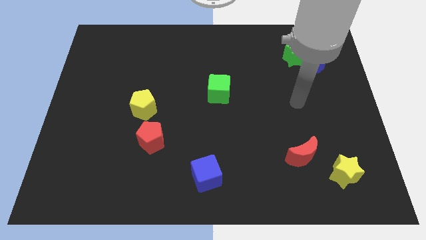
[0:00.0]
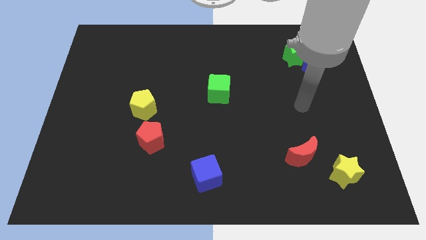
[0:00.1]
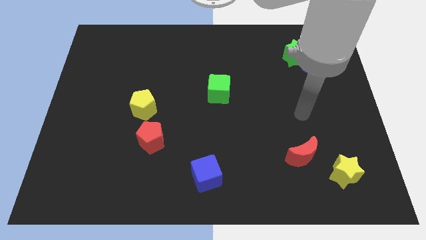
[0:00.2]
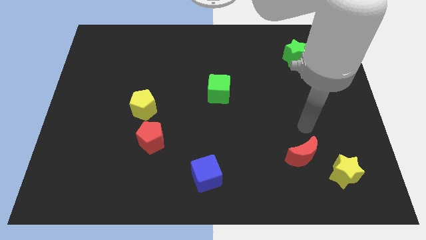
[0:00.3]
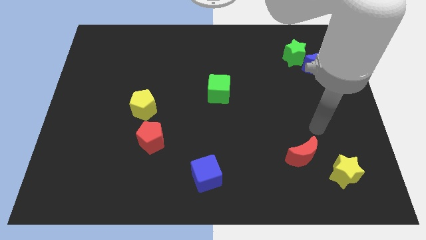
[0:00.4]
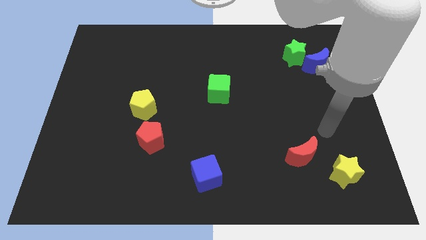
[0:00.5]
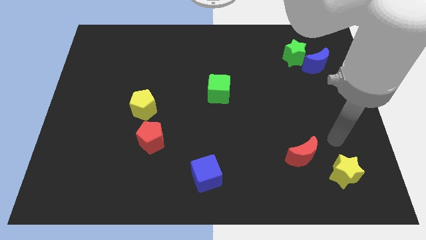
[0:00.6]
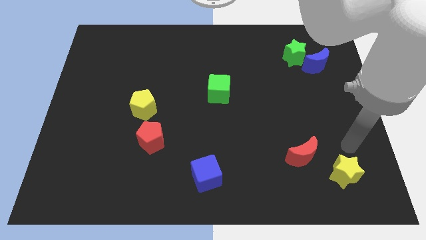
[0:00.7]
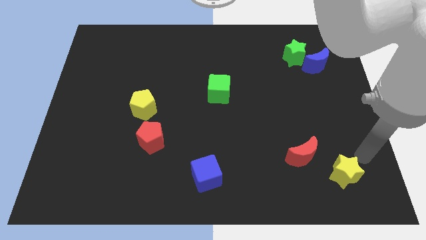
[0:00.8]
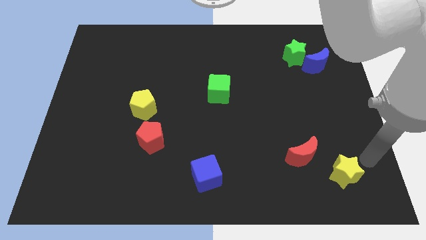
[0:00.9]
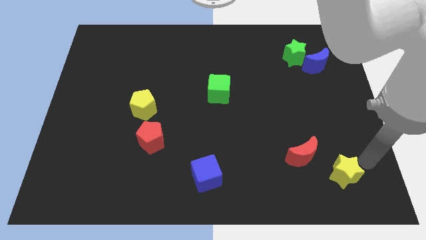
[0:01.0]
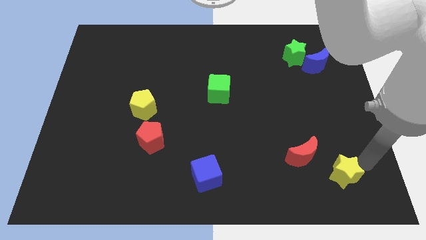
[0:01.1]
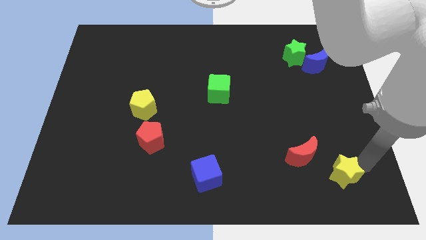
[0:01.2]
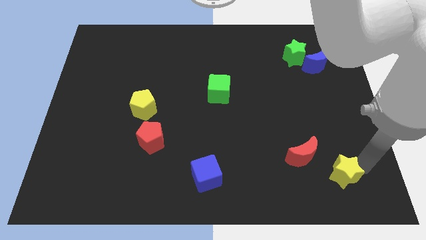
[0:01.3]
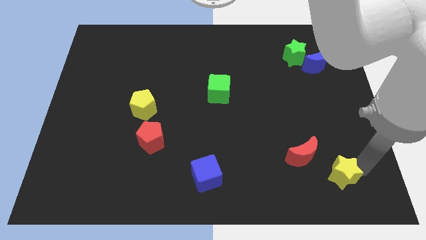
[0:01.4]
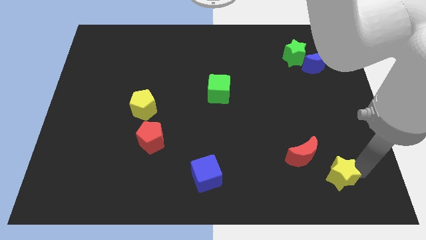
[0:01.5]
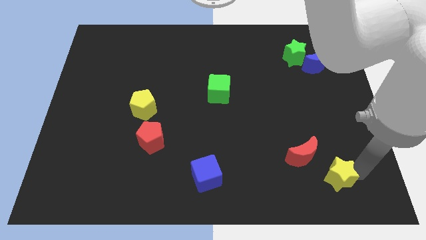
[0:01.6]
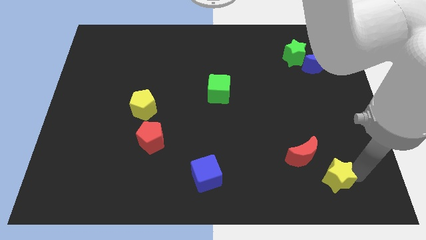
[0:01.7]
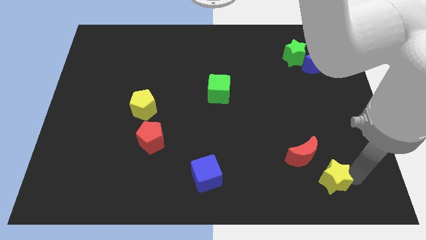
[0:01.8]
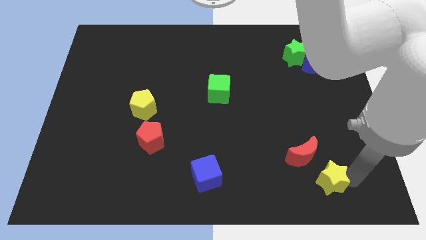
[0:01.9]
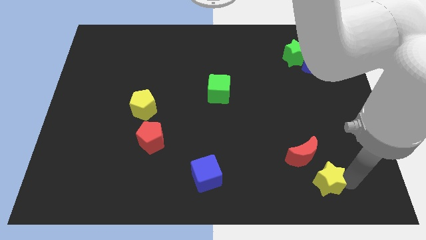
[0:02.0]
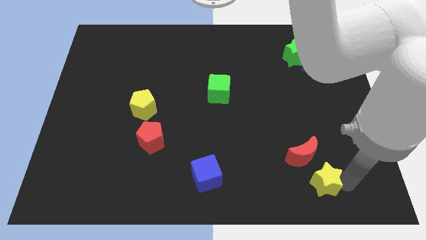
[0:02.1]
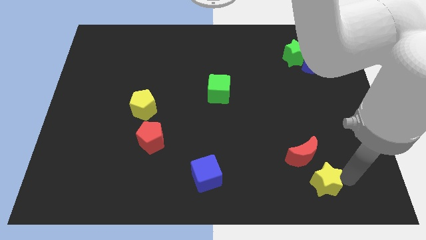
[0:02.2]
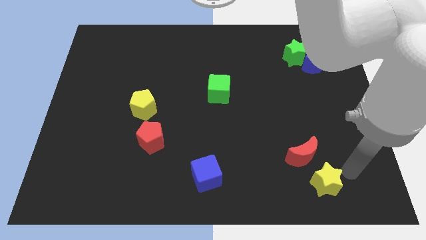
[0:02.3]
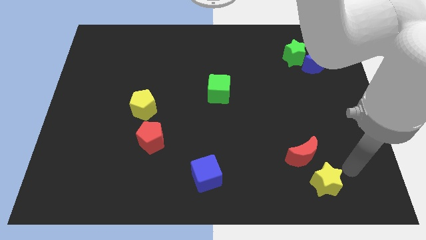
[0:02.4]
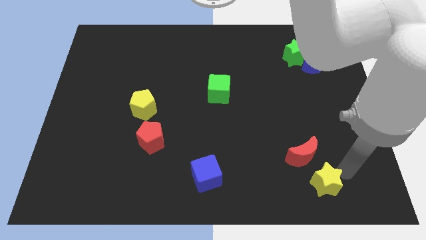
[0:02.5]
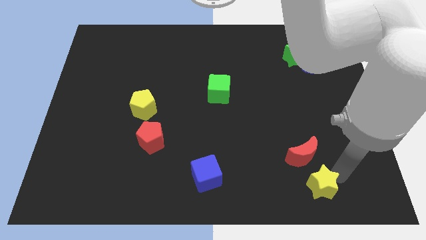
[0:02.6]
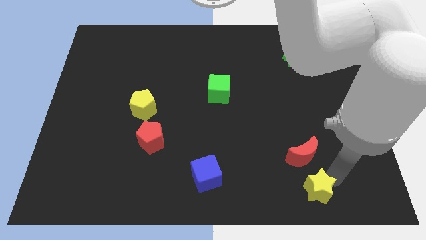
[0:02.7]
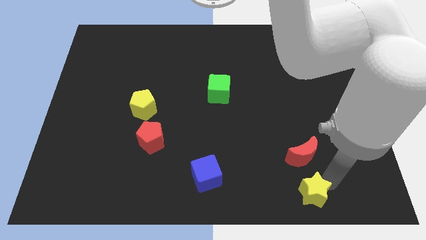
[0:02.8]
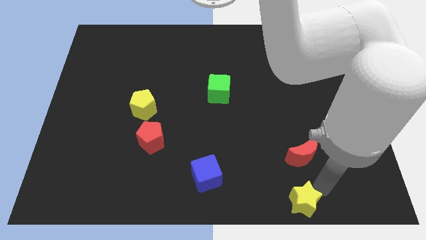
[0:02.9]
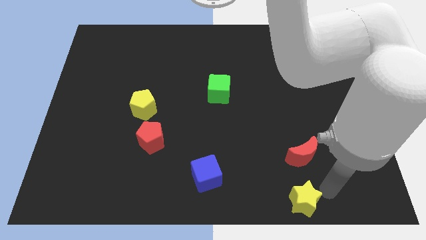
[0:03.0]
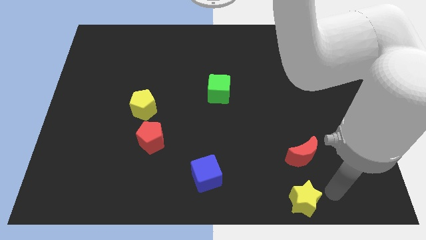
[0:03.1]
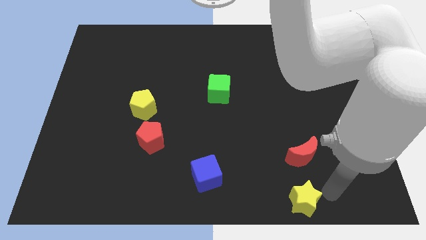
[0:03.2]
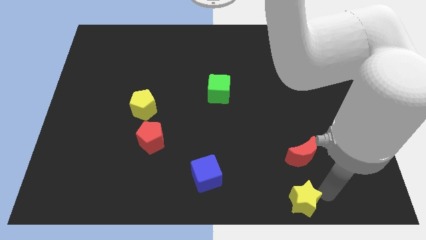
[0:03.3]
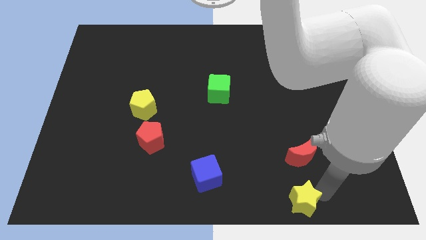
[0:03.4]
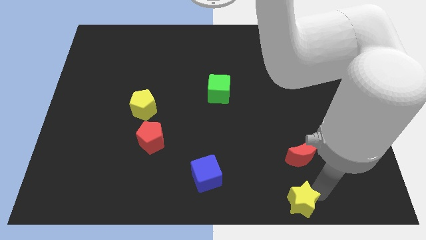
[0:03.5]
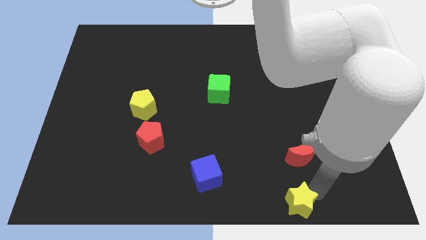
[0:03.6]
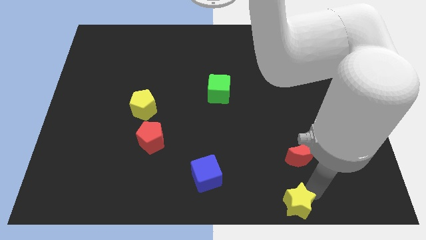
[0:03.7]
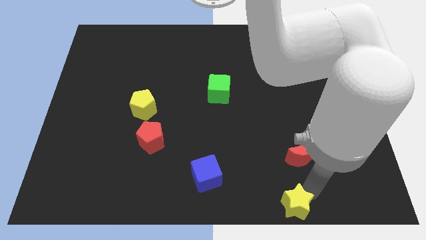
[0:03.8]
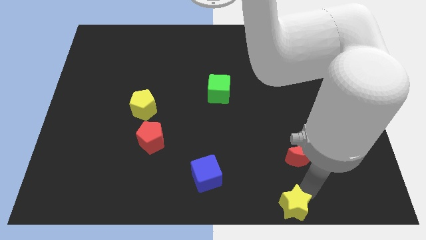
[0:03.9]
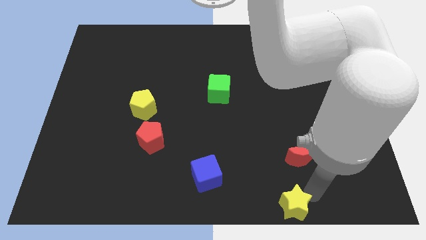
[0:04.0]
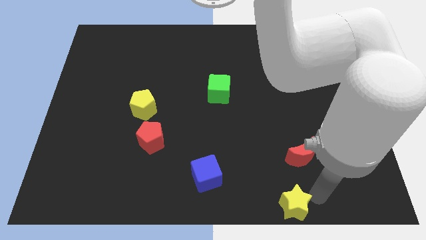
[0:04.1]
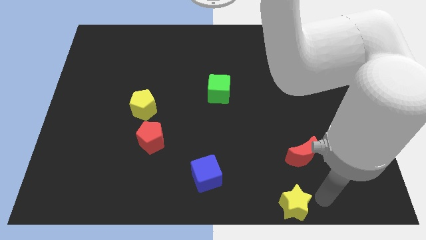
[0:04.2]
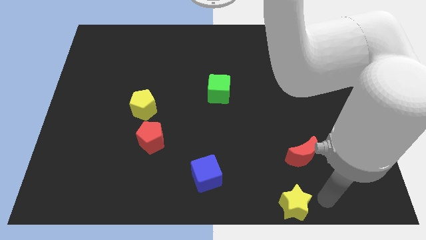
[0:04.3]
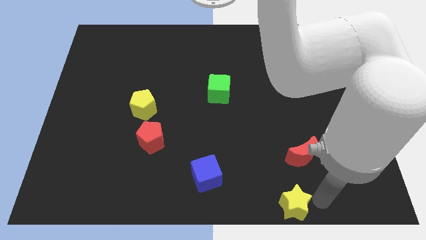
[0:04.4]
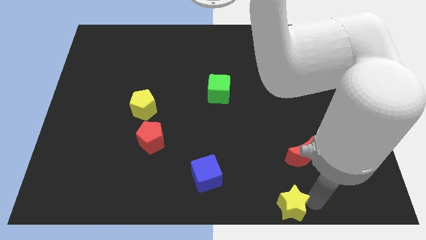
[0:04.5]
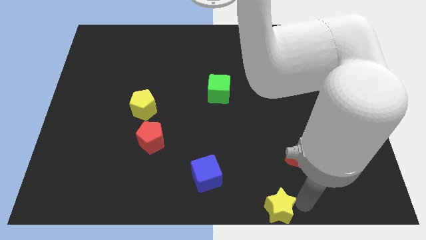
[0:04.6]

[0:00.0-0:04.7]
slide the yellow star to the bottom

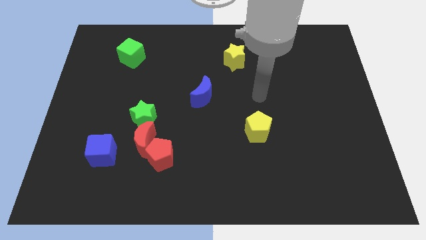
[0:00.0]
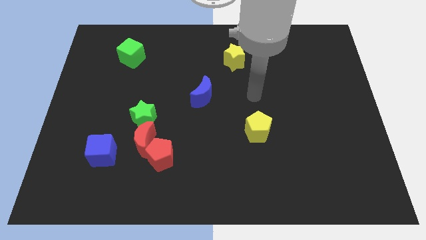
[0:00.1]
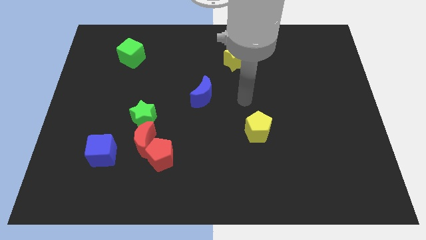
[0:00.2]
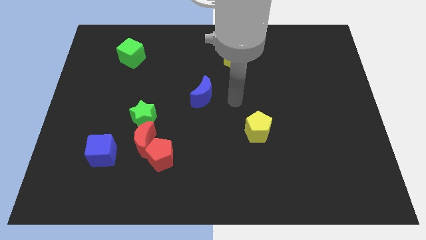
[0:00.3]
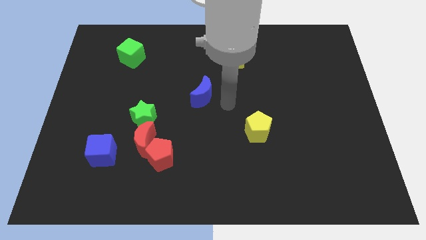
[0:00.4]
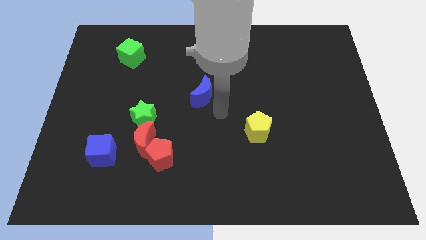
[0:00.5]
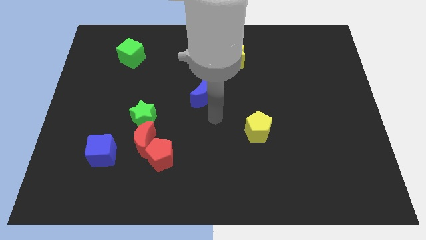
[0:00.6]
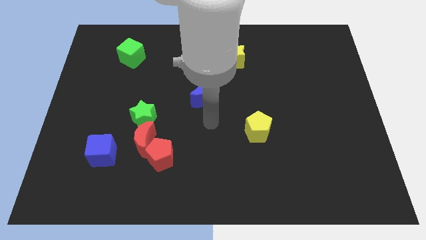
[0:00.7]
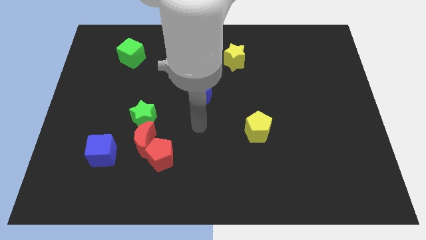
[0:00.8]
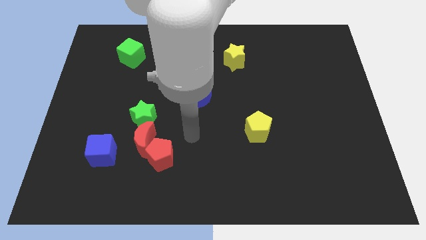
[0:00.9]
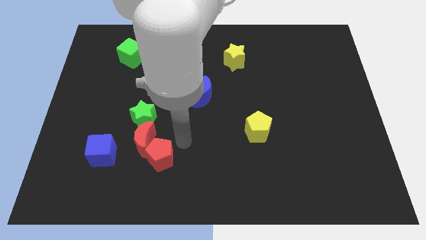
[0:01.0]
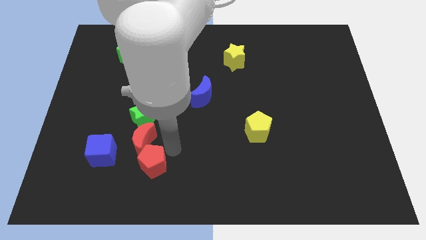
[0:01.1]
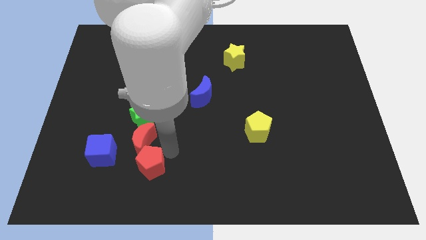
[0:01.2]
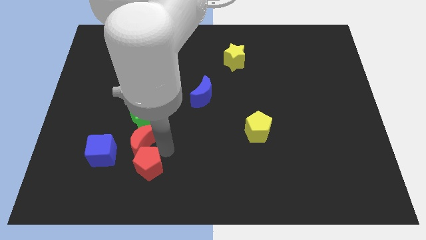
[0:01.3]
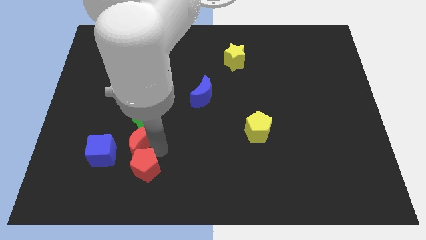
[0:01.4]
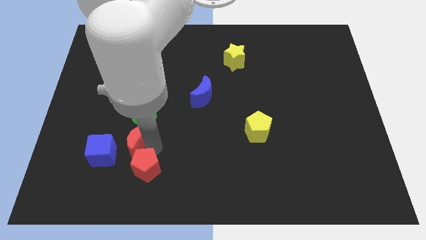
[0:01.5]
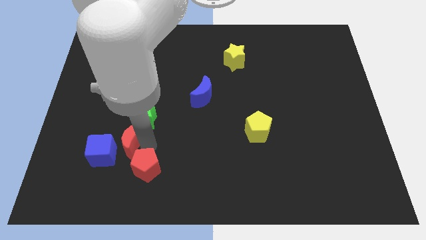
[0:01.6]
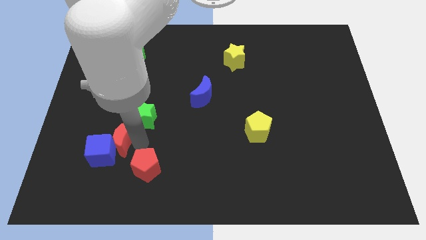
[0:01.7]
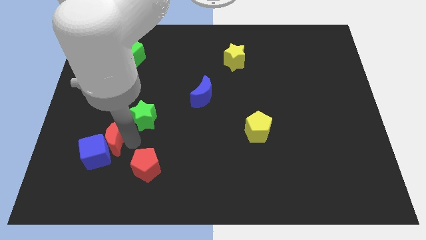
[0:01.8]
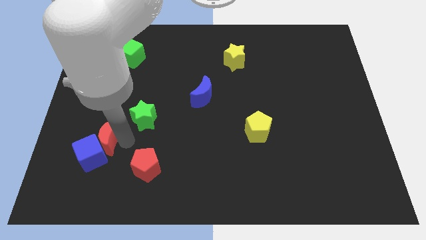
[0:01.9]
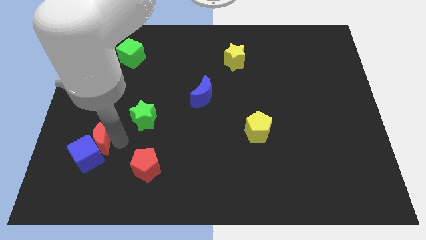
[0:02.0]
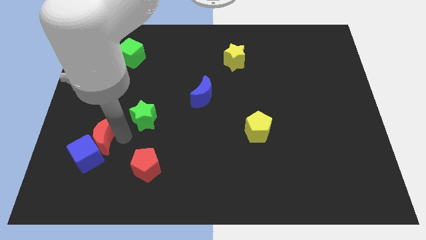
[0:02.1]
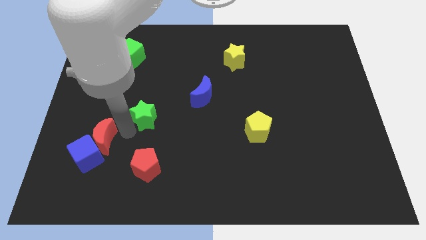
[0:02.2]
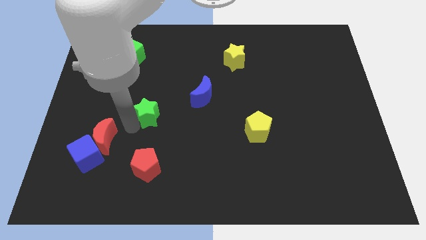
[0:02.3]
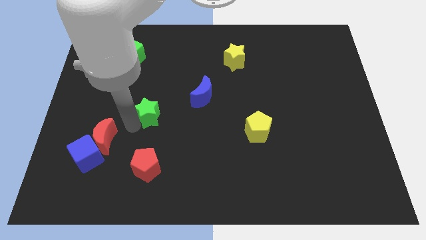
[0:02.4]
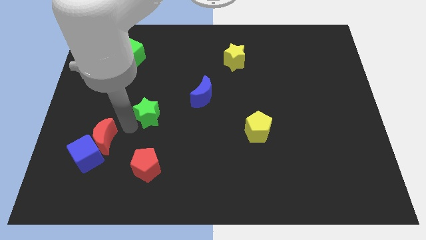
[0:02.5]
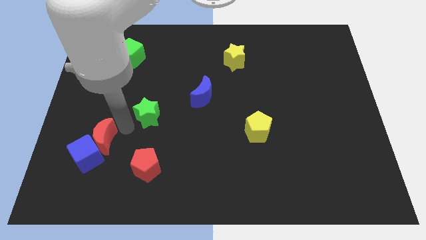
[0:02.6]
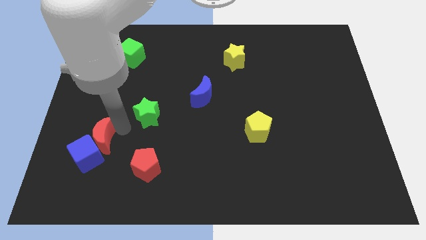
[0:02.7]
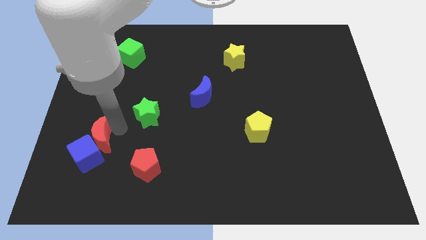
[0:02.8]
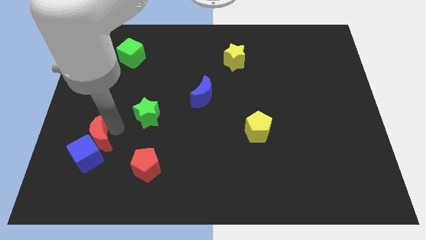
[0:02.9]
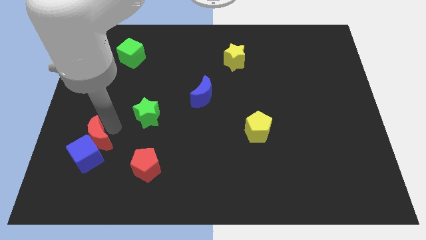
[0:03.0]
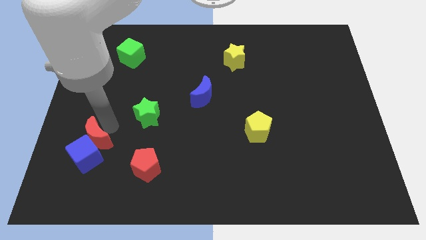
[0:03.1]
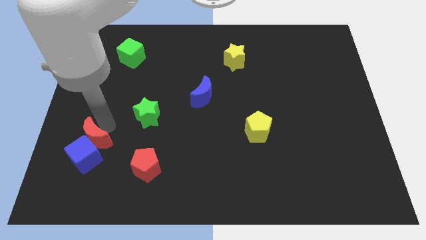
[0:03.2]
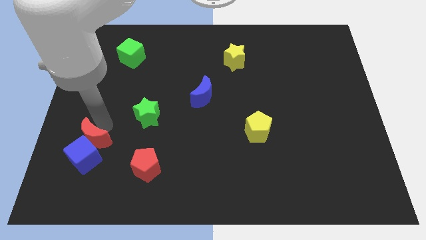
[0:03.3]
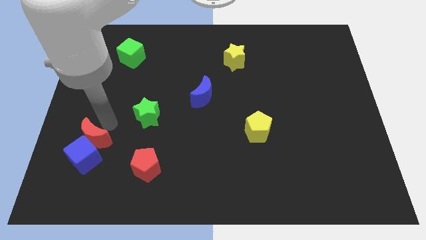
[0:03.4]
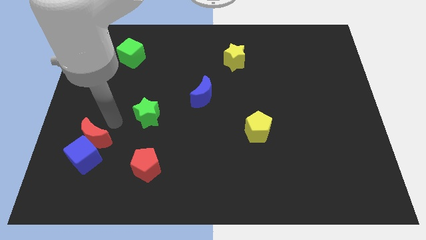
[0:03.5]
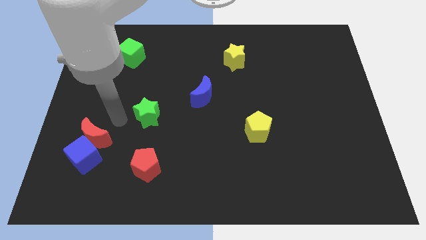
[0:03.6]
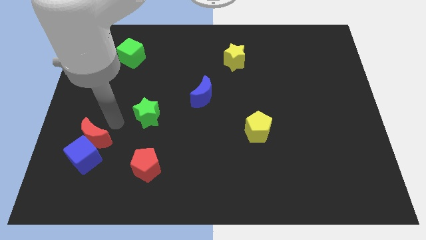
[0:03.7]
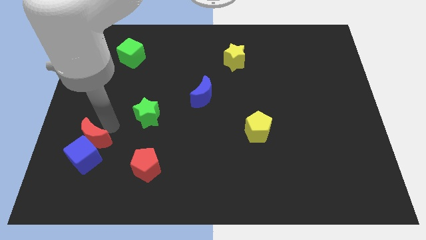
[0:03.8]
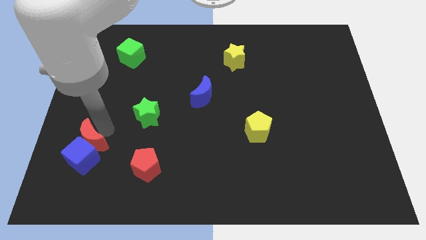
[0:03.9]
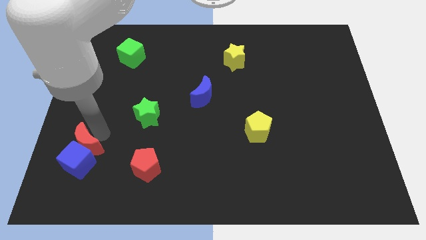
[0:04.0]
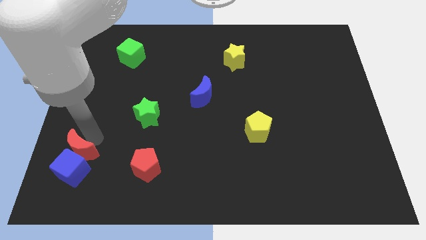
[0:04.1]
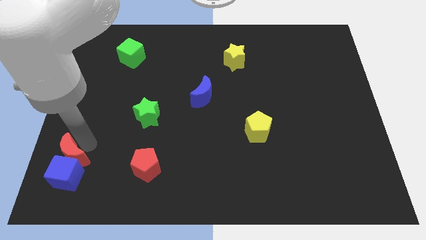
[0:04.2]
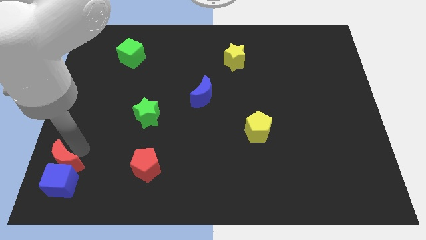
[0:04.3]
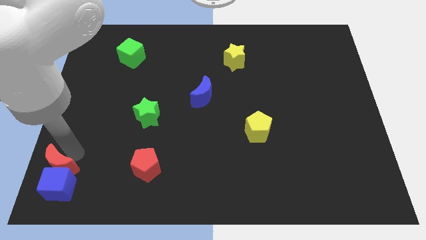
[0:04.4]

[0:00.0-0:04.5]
slide the red moon to the bottom left corner
